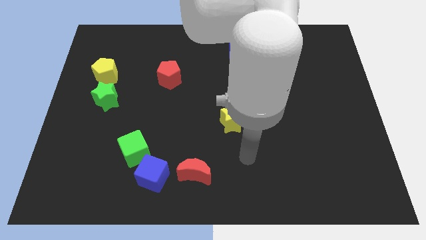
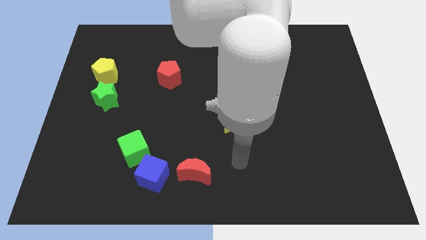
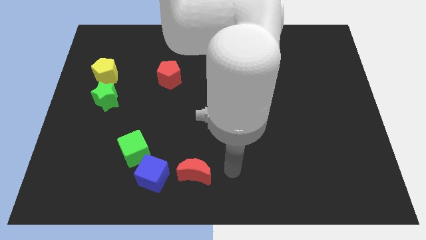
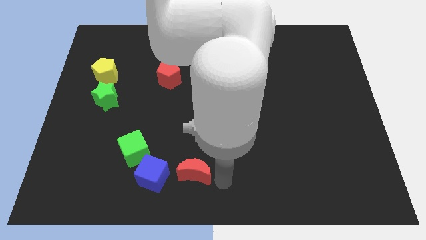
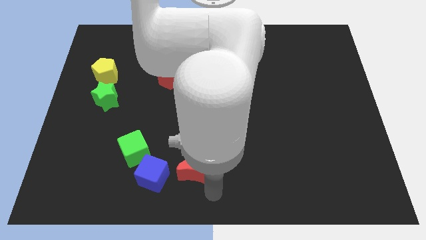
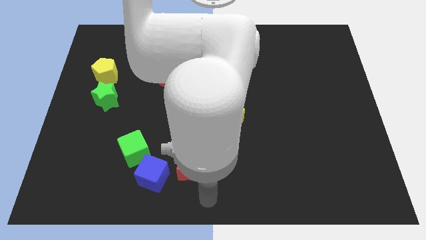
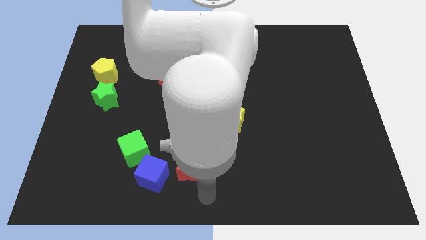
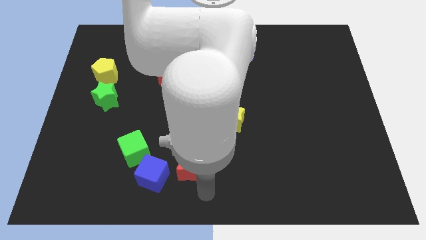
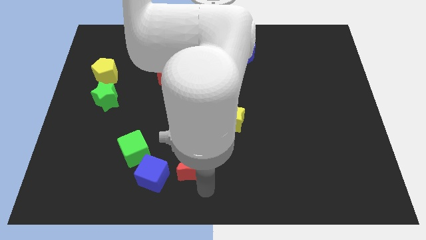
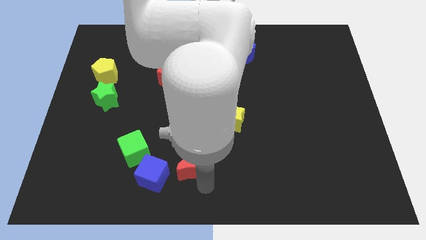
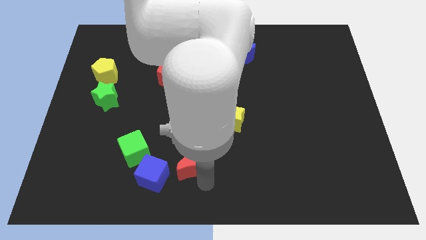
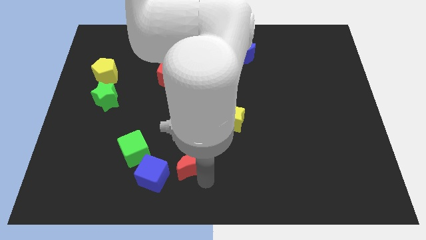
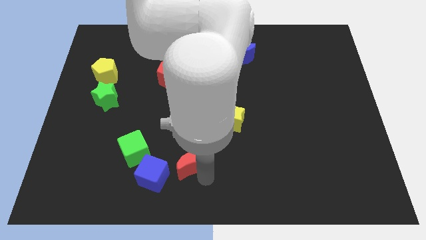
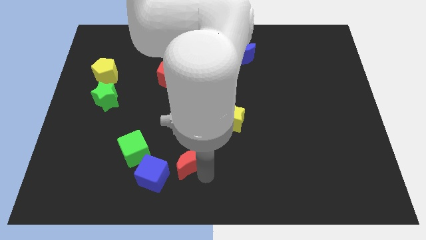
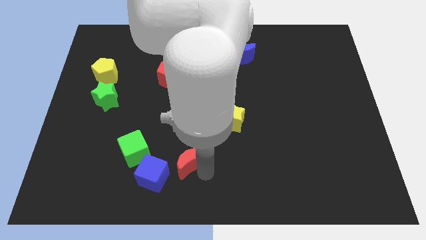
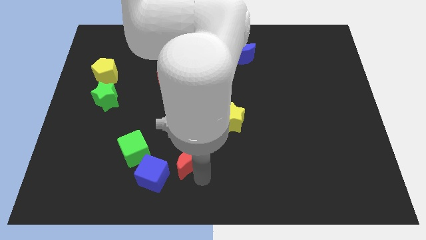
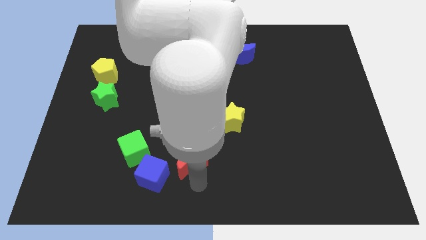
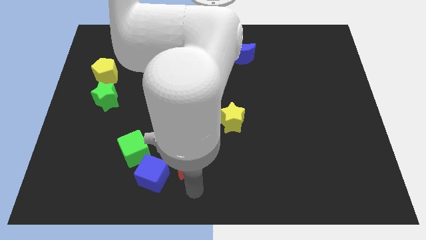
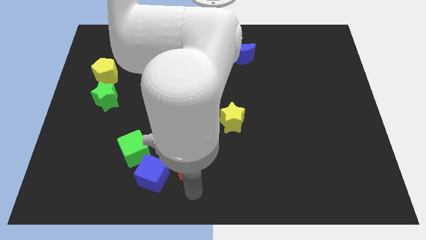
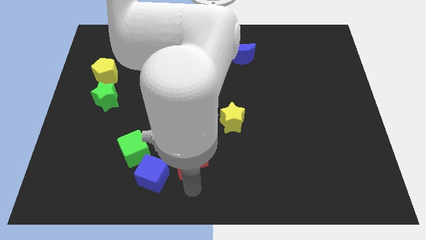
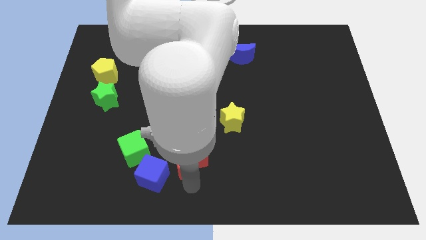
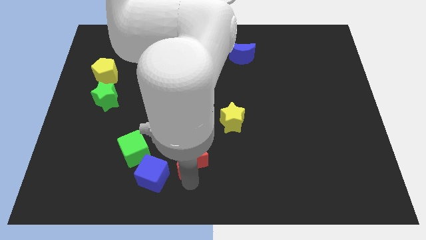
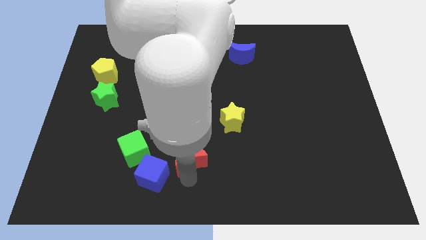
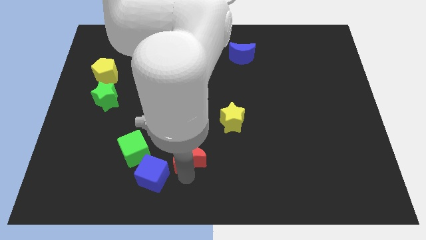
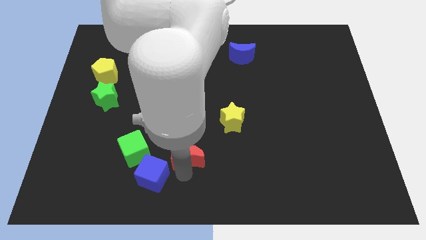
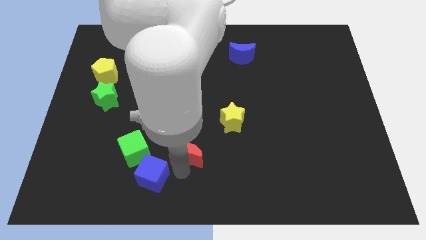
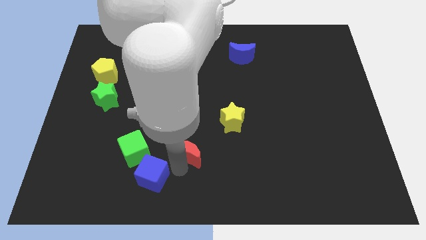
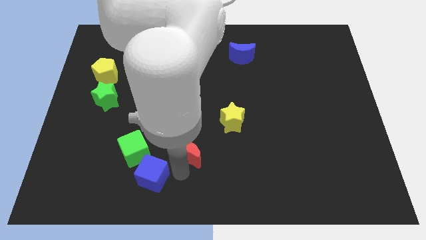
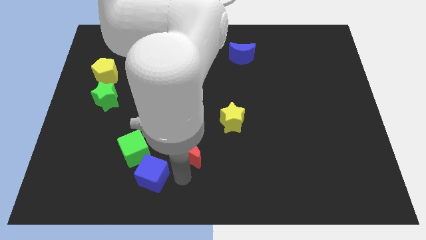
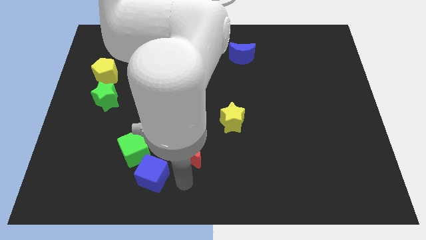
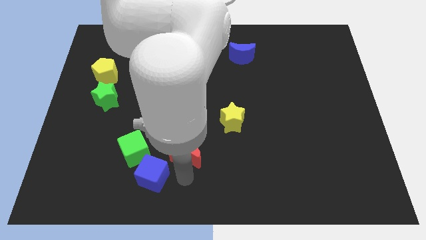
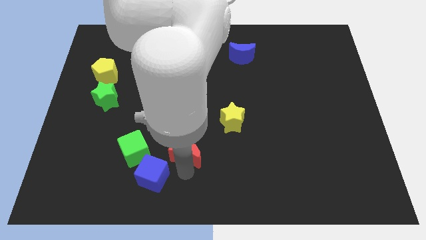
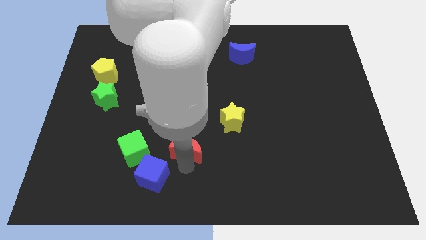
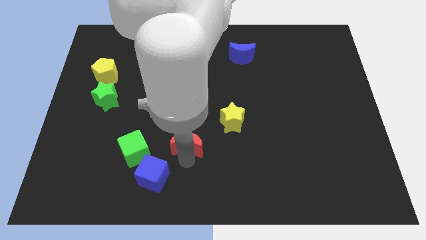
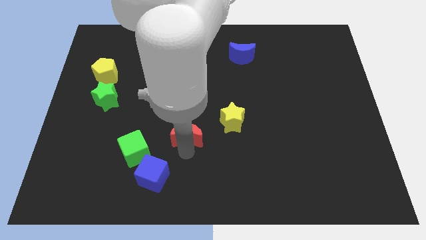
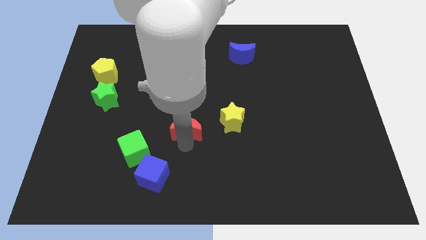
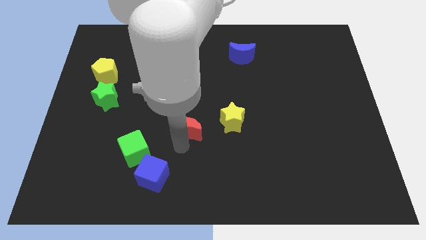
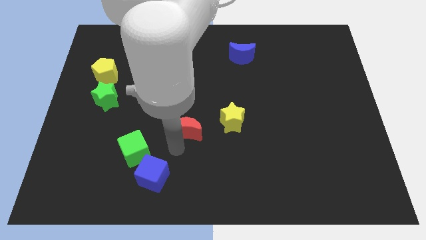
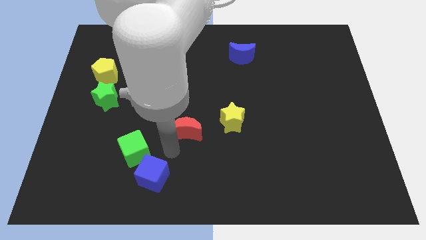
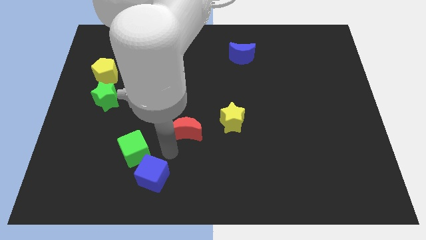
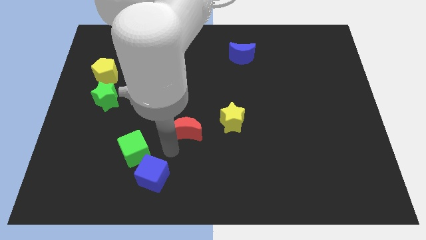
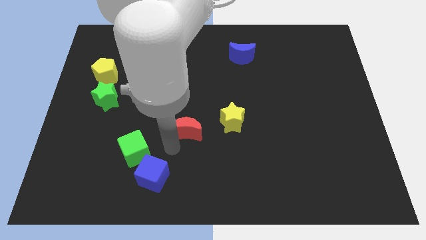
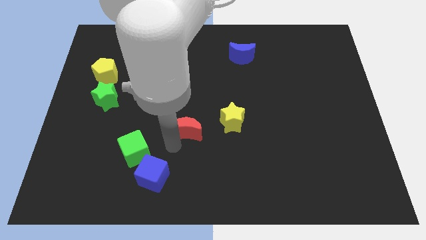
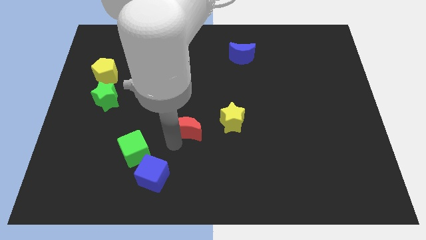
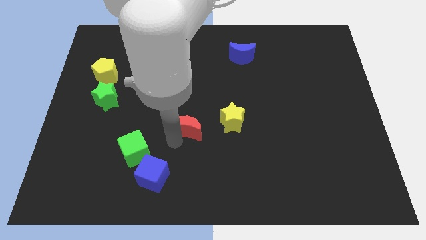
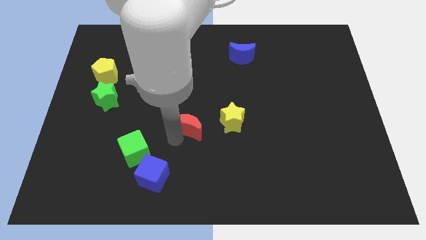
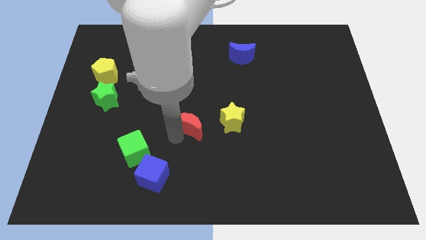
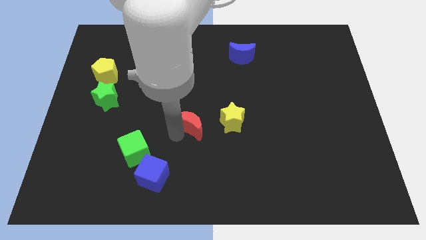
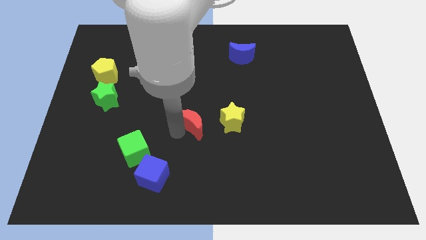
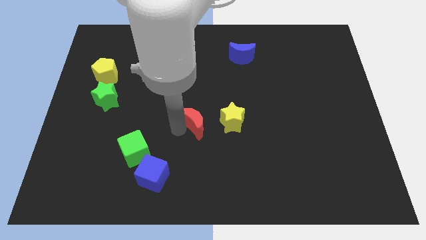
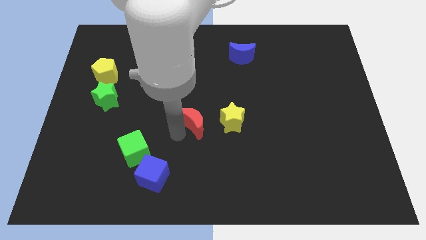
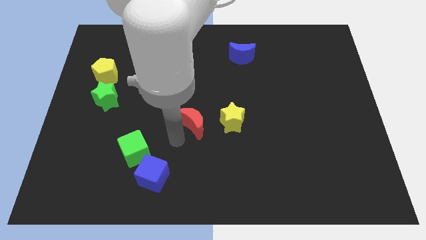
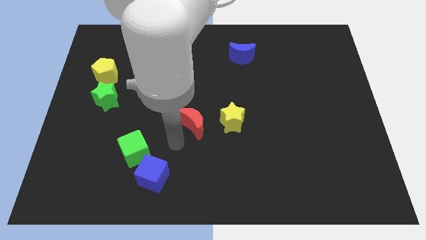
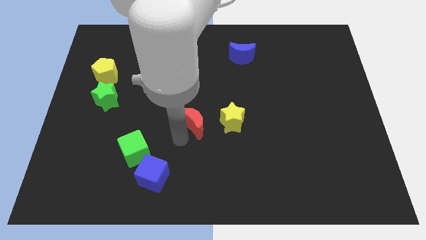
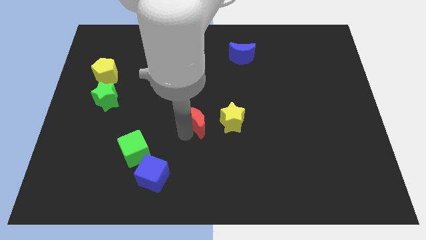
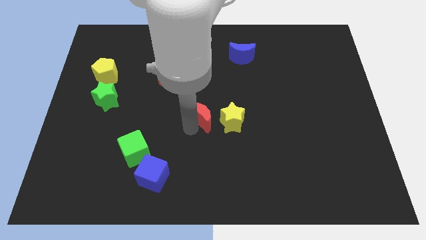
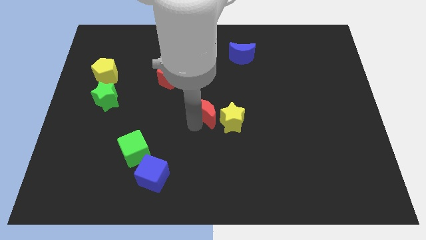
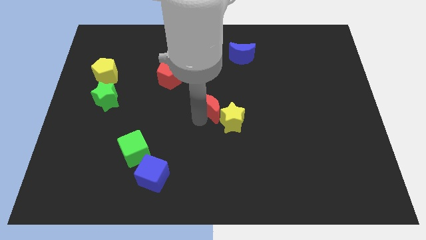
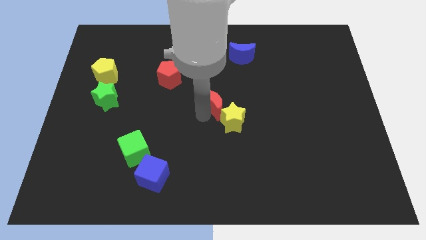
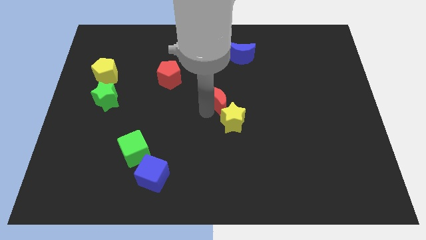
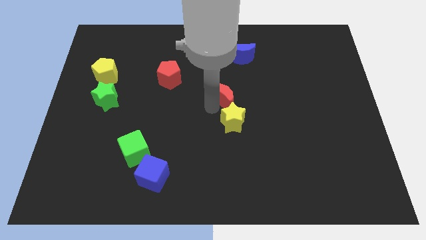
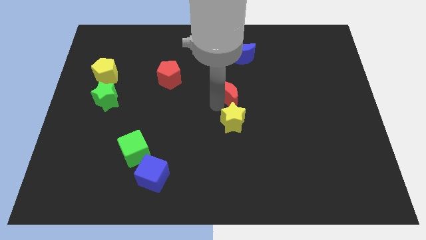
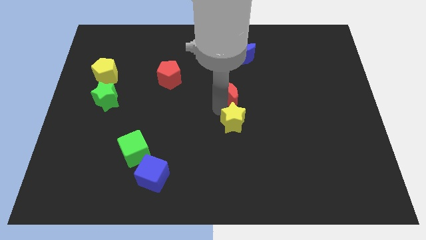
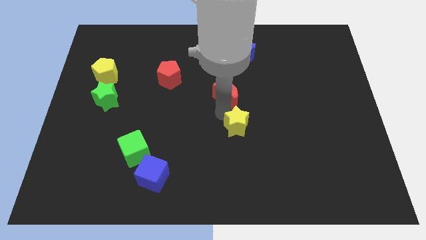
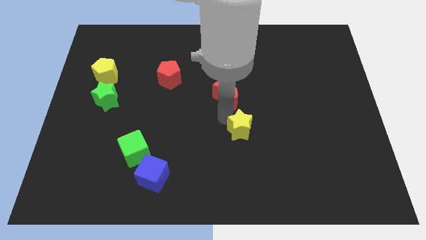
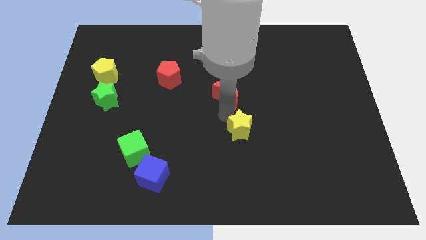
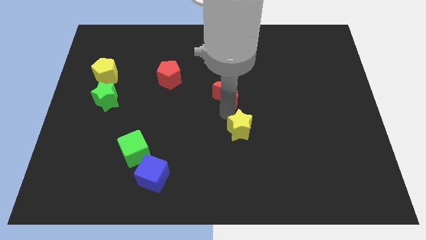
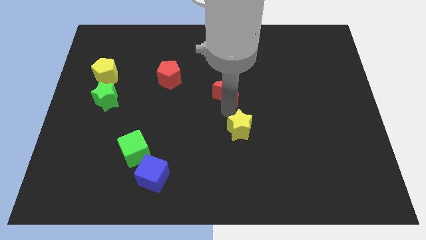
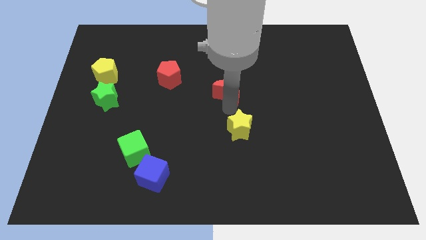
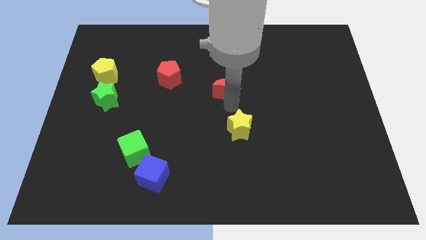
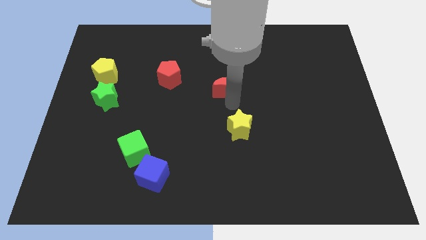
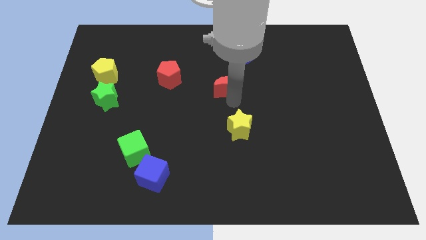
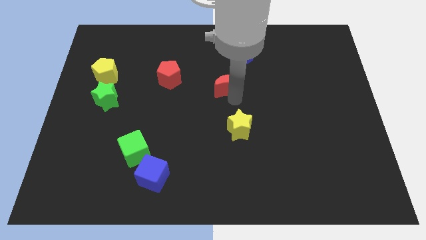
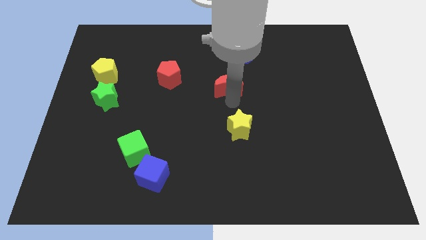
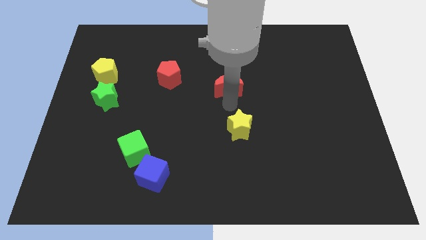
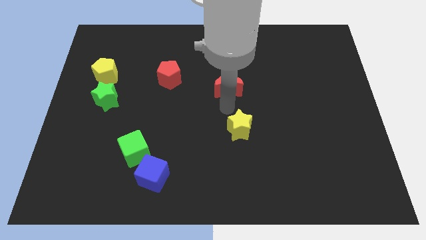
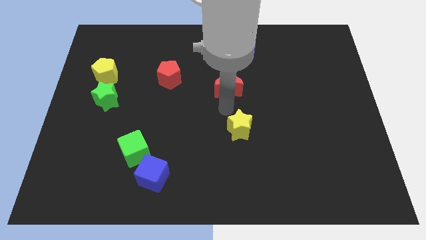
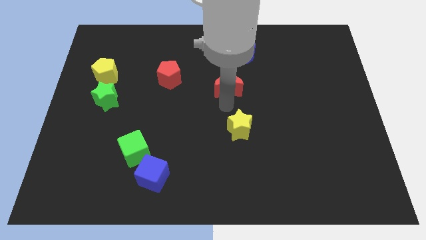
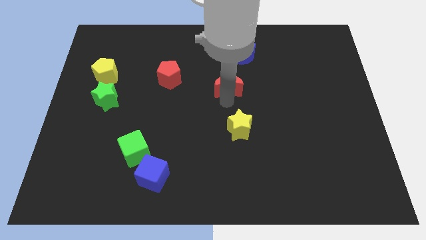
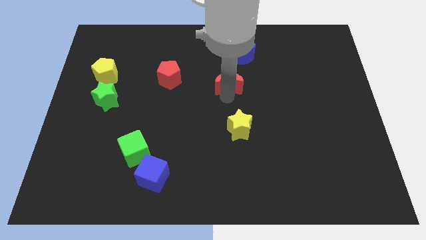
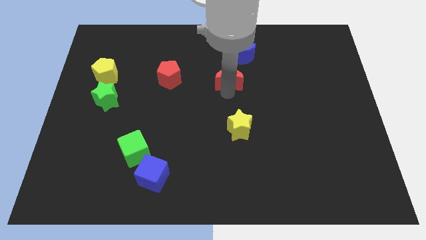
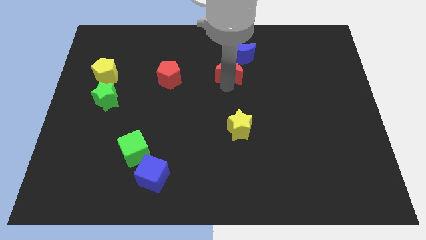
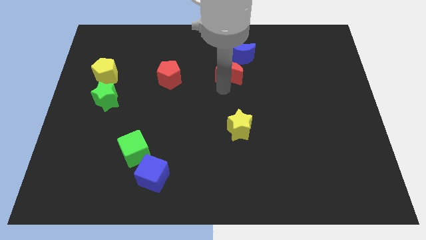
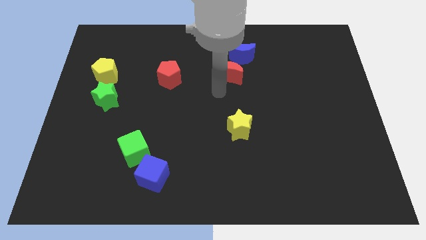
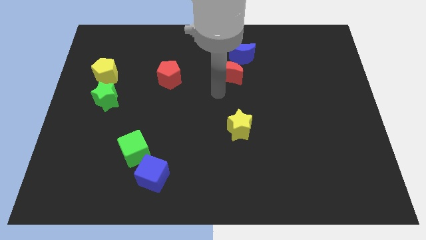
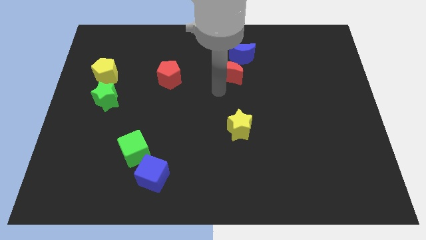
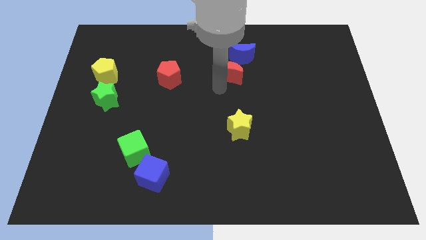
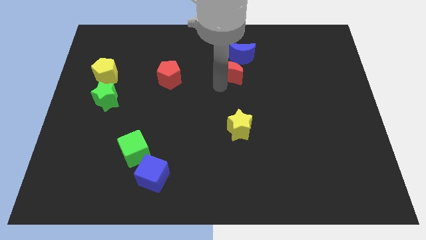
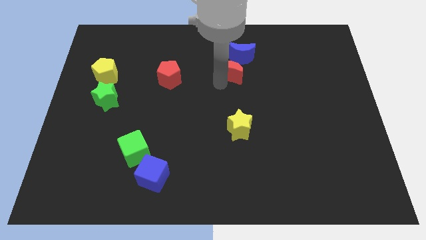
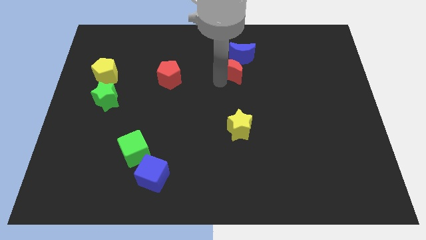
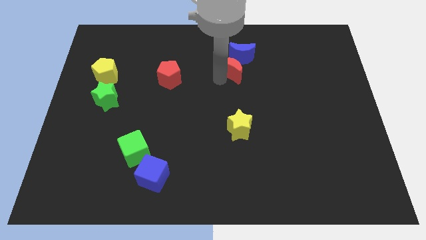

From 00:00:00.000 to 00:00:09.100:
put the red moon towards the blue moon
